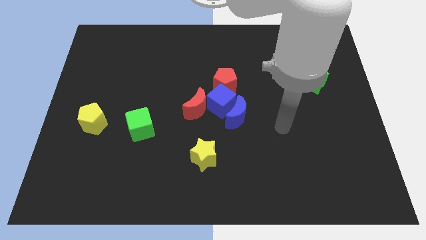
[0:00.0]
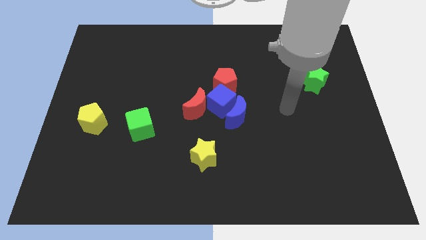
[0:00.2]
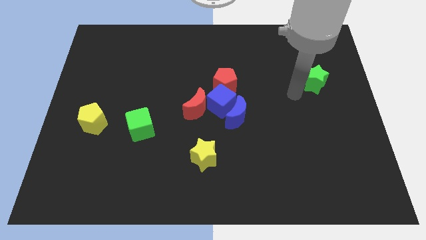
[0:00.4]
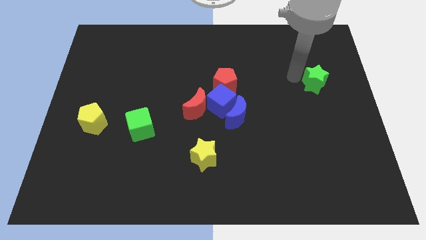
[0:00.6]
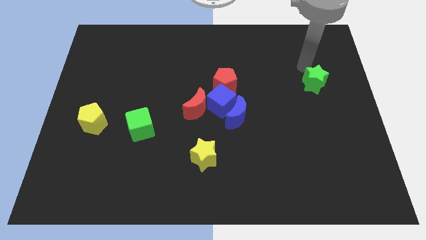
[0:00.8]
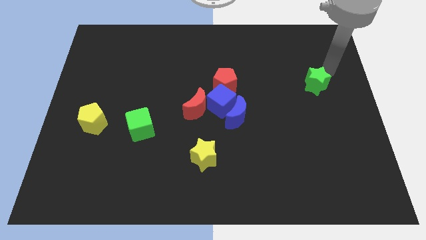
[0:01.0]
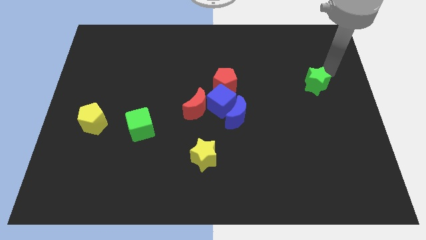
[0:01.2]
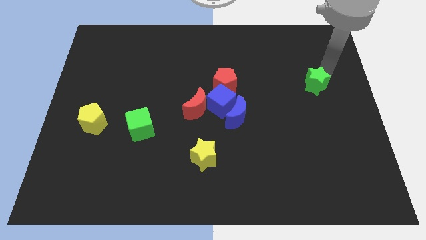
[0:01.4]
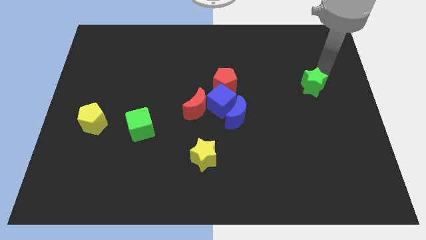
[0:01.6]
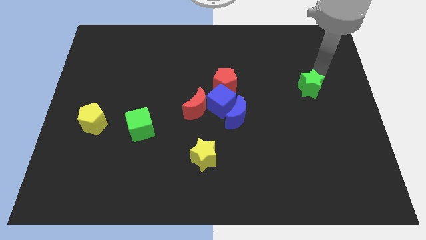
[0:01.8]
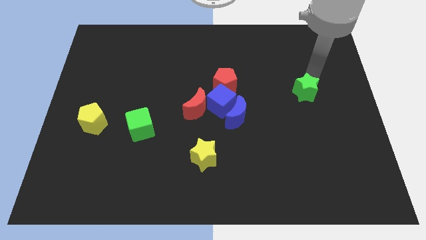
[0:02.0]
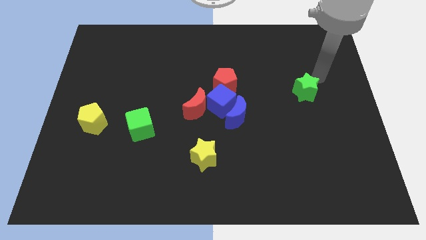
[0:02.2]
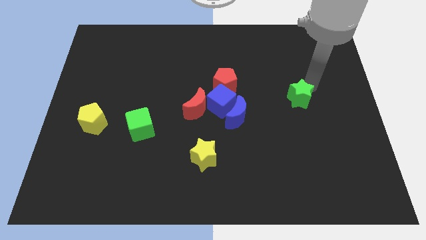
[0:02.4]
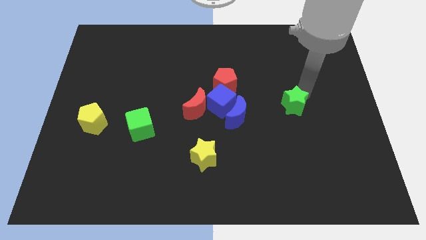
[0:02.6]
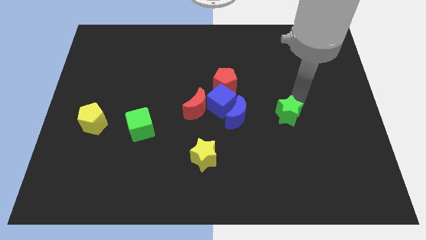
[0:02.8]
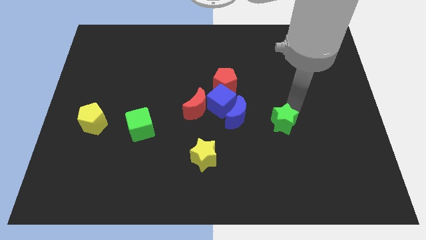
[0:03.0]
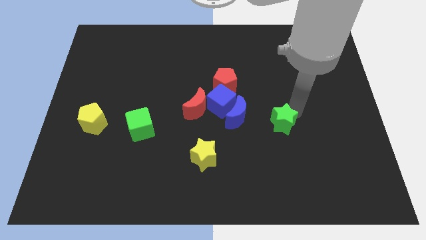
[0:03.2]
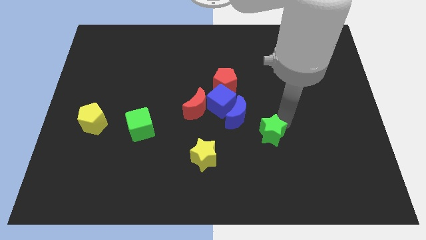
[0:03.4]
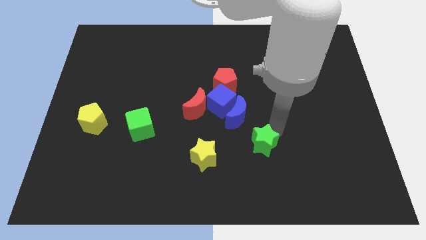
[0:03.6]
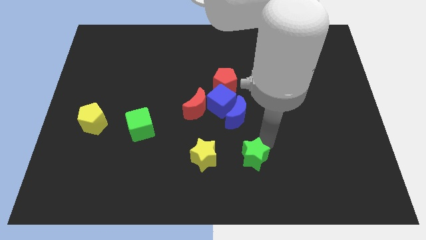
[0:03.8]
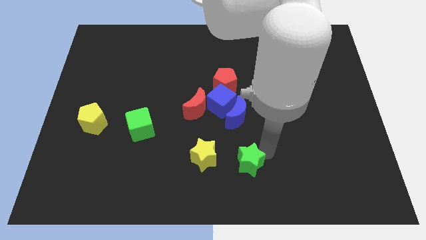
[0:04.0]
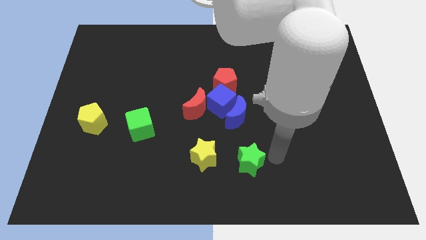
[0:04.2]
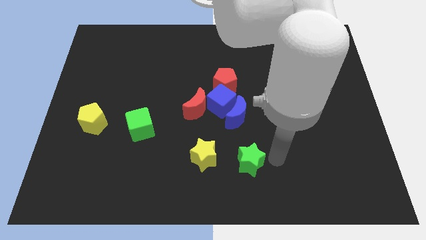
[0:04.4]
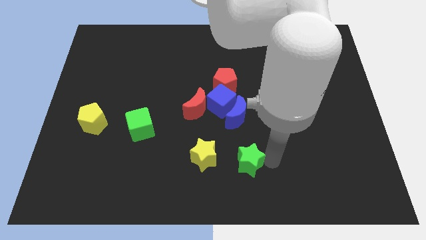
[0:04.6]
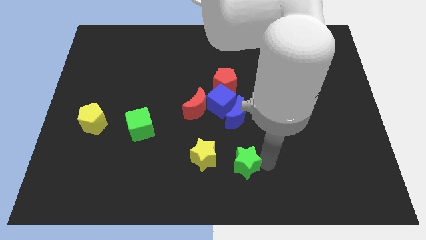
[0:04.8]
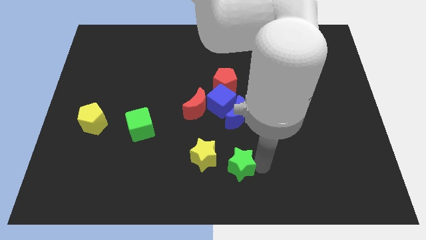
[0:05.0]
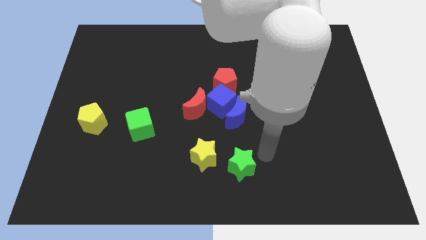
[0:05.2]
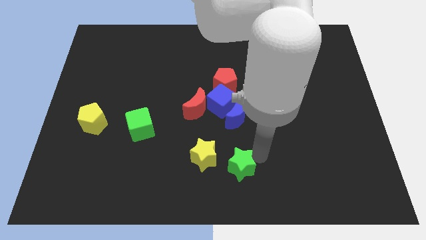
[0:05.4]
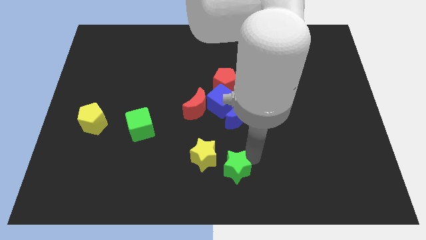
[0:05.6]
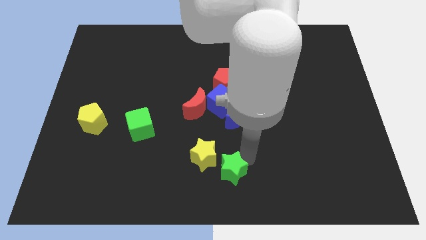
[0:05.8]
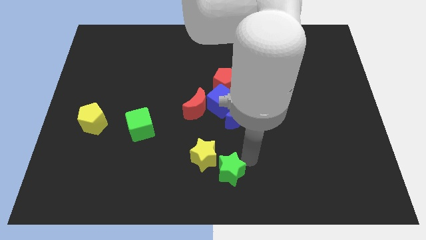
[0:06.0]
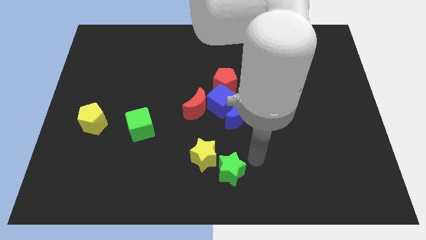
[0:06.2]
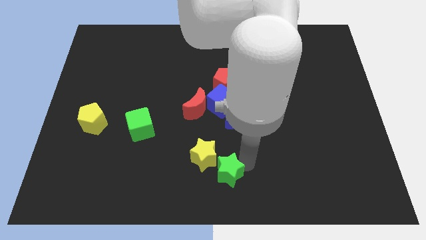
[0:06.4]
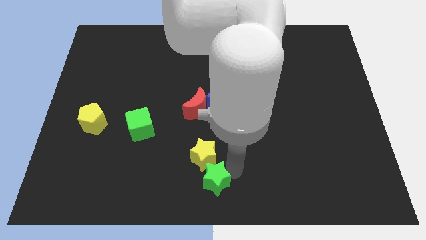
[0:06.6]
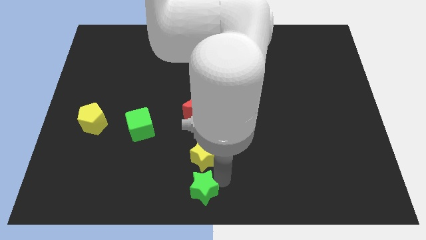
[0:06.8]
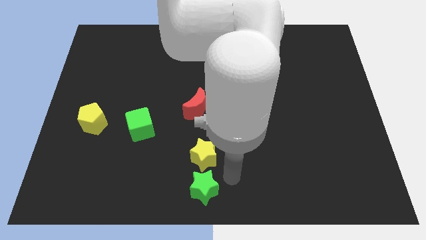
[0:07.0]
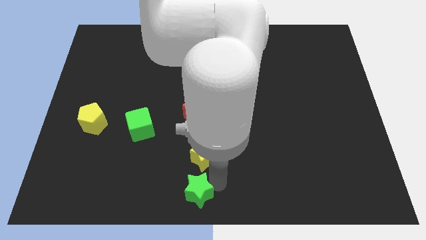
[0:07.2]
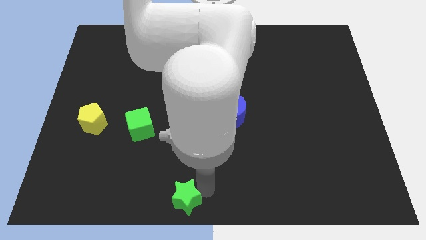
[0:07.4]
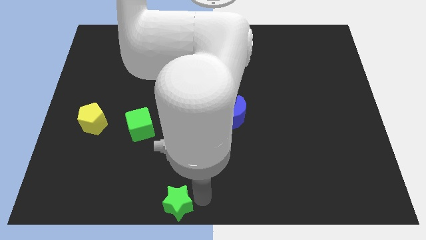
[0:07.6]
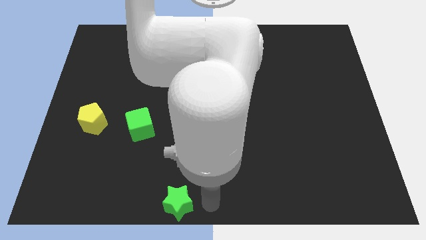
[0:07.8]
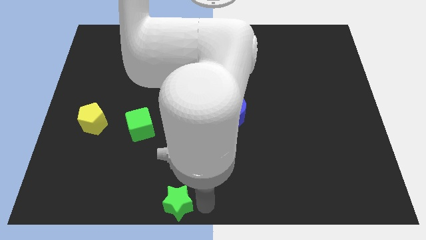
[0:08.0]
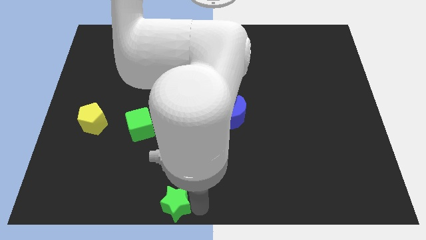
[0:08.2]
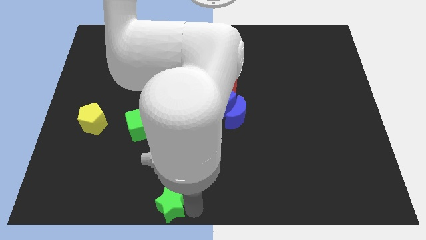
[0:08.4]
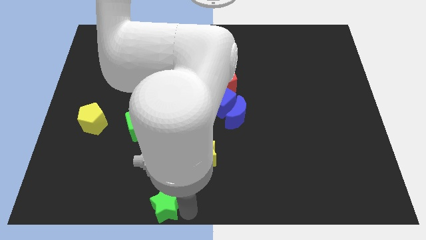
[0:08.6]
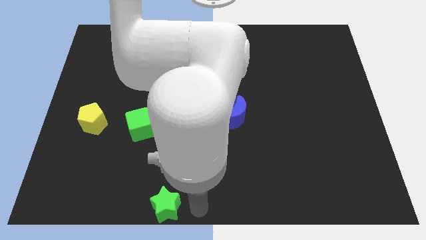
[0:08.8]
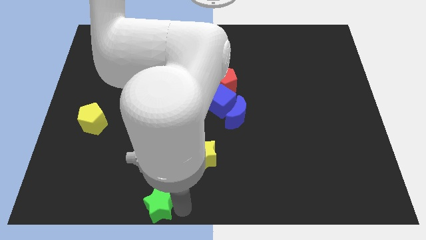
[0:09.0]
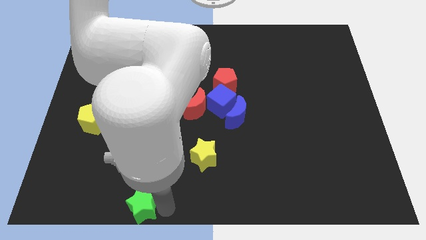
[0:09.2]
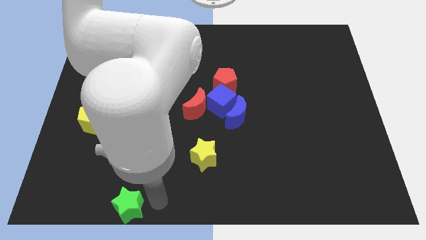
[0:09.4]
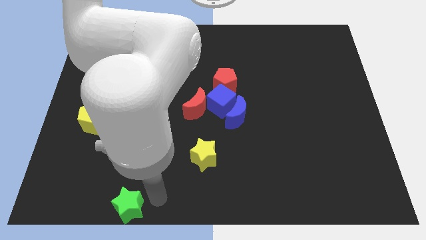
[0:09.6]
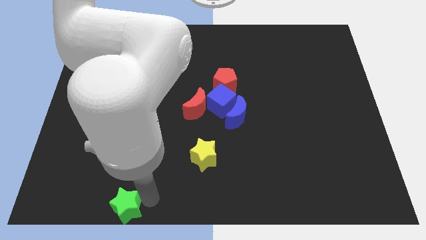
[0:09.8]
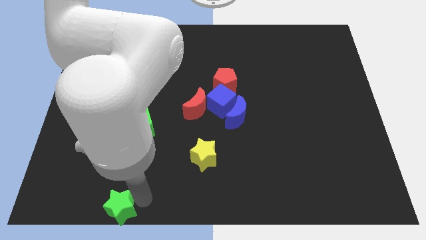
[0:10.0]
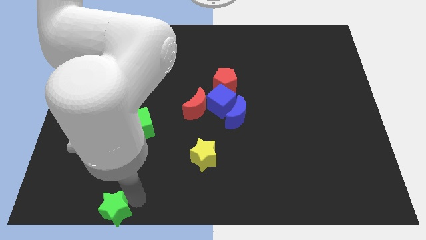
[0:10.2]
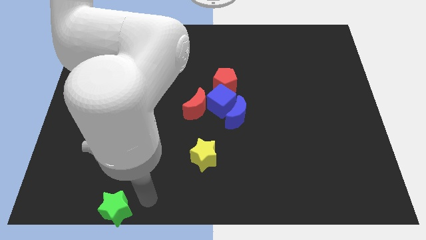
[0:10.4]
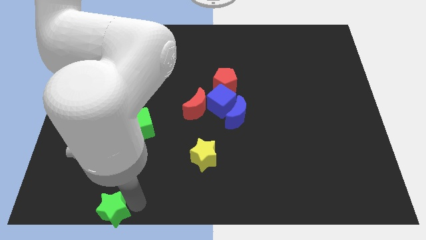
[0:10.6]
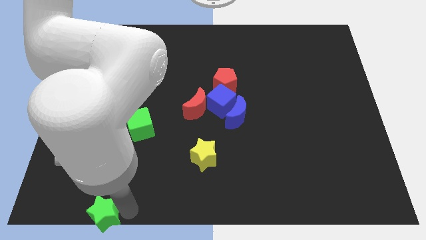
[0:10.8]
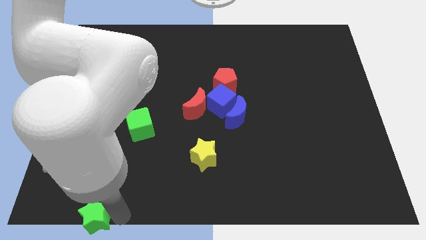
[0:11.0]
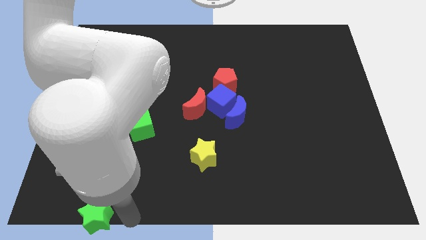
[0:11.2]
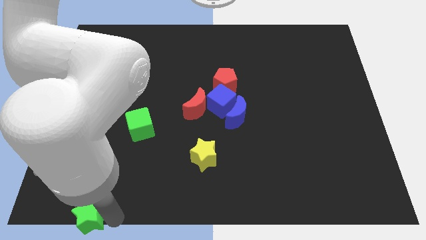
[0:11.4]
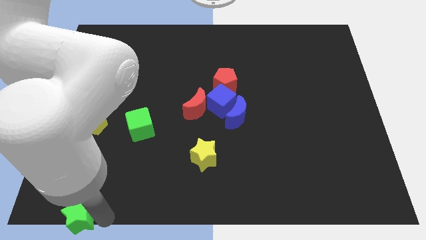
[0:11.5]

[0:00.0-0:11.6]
put the green star to the bottom left
